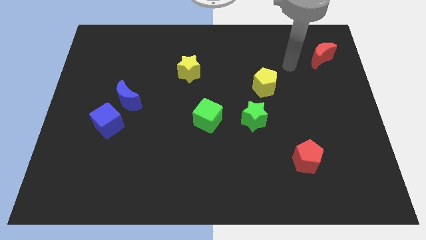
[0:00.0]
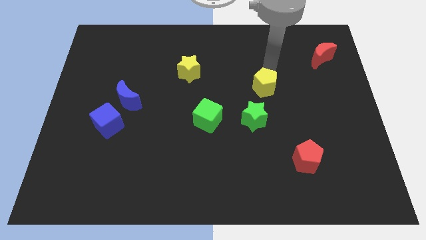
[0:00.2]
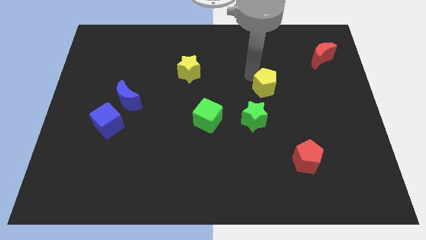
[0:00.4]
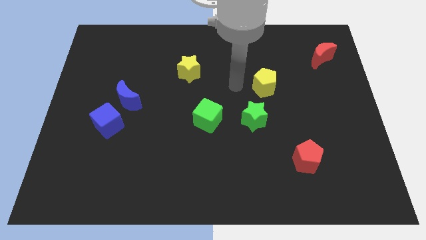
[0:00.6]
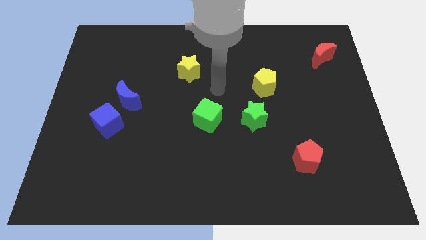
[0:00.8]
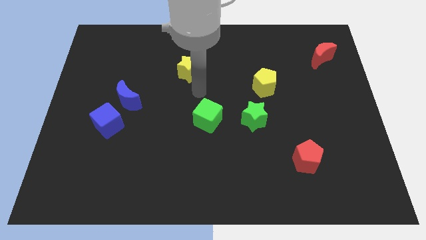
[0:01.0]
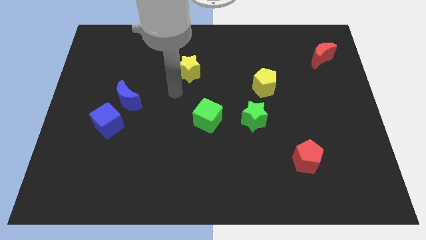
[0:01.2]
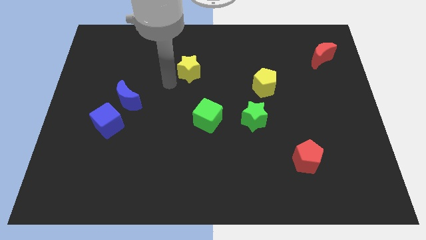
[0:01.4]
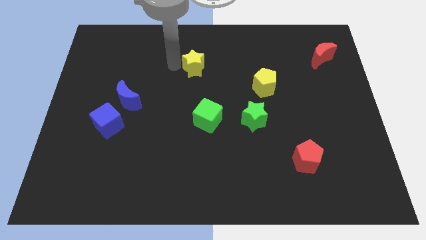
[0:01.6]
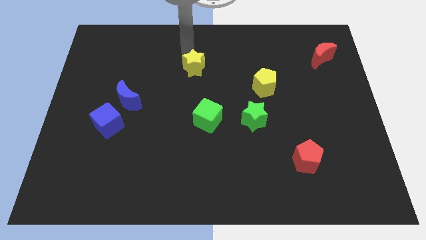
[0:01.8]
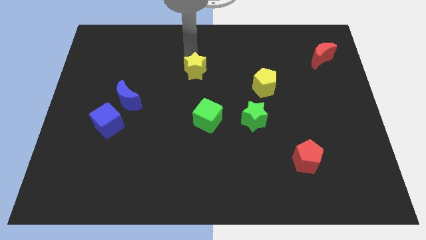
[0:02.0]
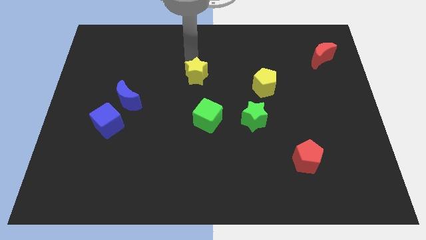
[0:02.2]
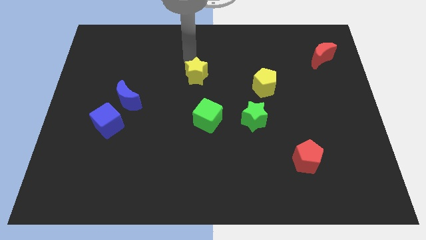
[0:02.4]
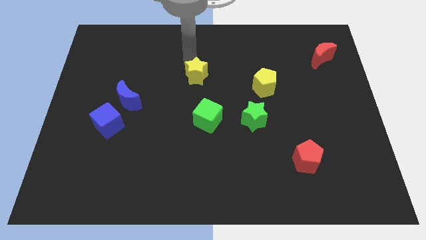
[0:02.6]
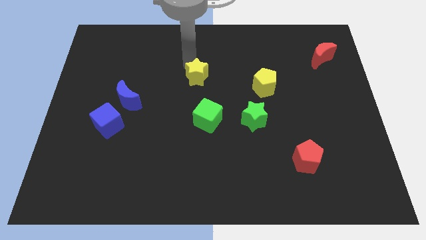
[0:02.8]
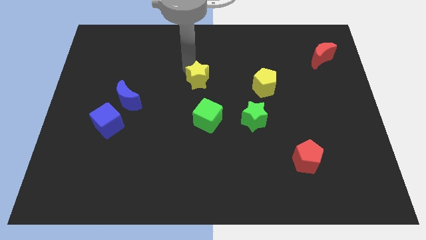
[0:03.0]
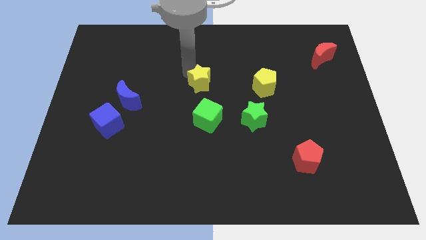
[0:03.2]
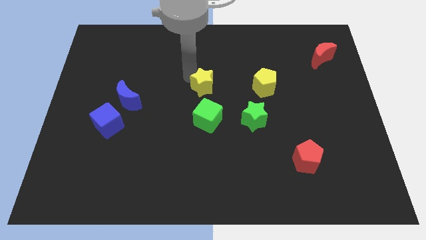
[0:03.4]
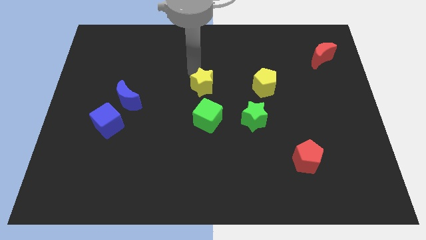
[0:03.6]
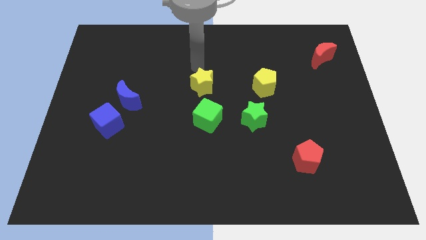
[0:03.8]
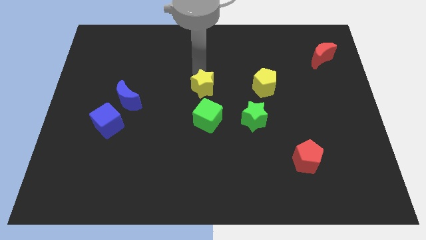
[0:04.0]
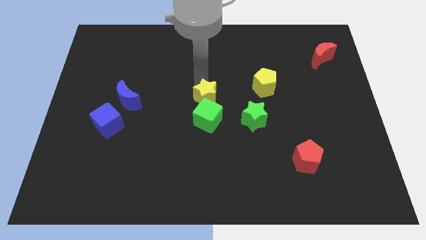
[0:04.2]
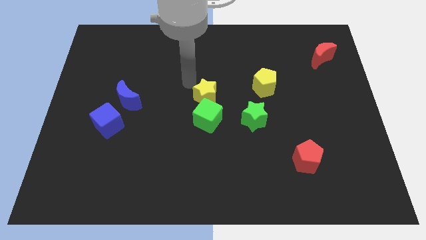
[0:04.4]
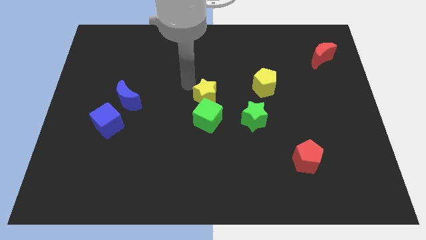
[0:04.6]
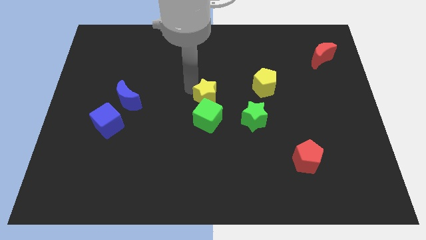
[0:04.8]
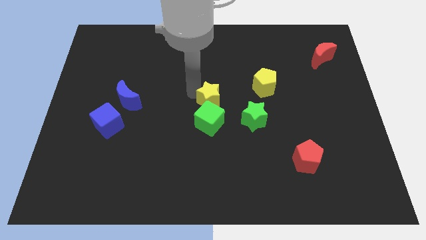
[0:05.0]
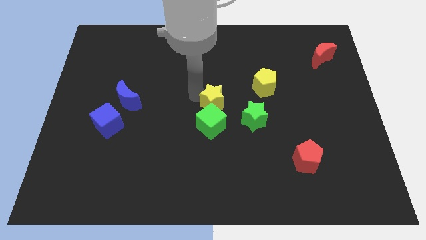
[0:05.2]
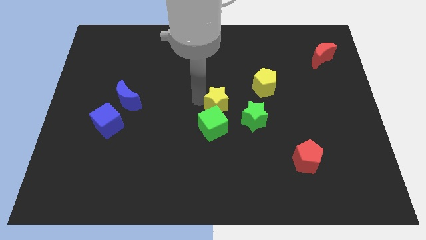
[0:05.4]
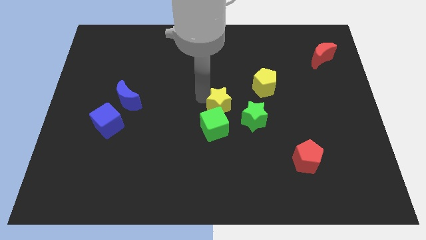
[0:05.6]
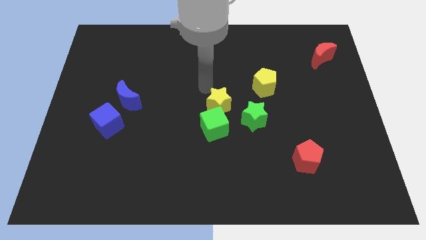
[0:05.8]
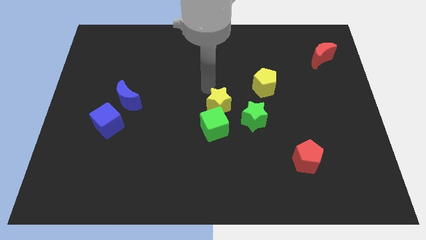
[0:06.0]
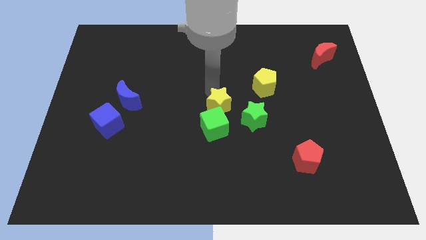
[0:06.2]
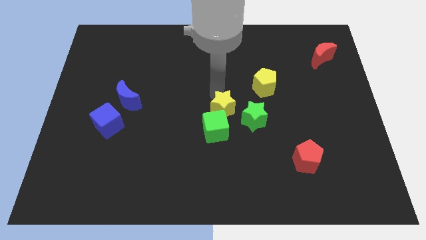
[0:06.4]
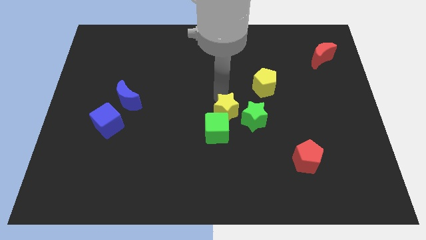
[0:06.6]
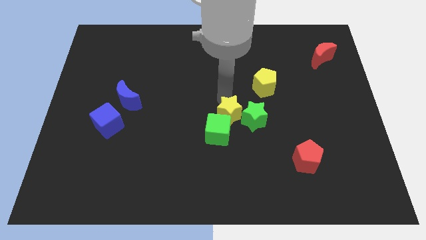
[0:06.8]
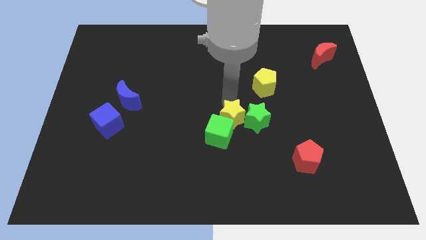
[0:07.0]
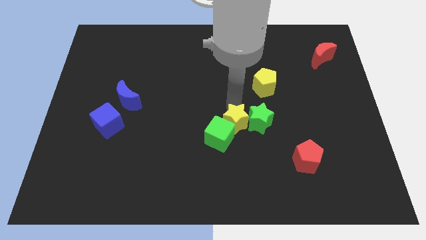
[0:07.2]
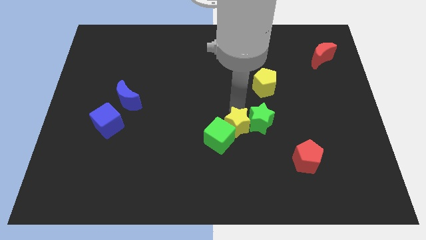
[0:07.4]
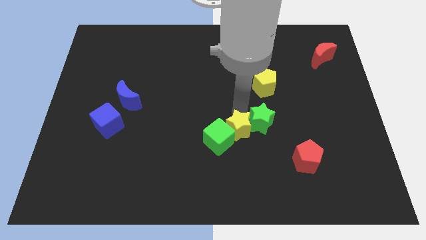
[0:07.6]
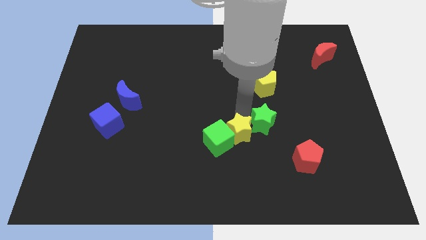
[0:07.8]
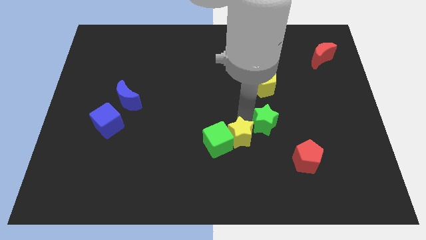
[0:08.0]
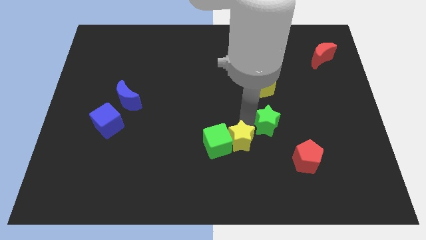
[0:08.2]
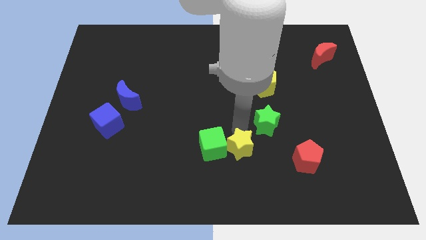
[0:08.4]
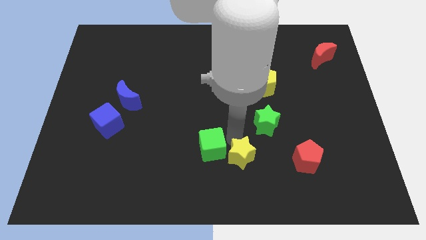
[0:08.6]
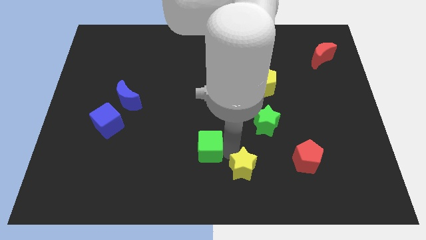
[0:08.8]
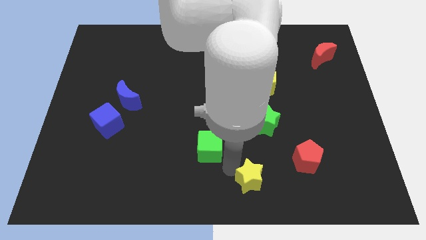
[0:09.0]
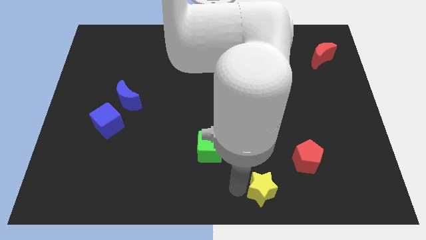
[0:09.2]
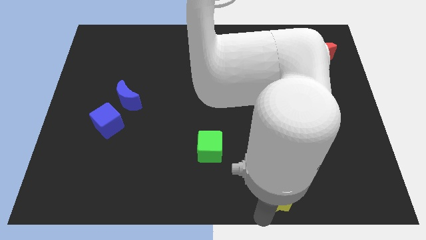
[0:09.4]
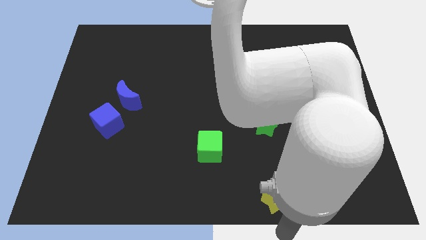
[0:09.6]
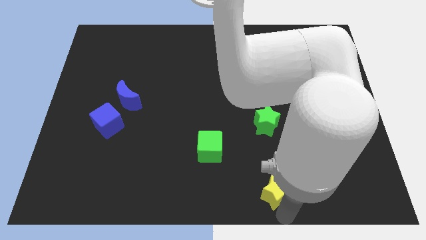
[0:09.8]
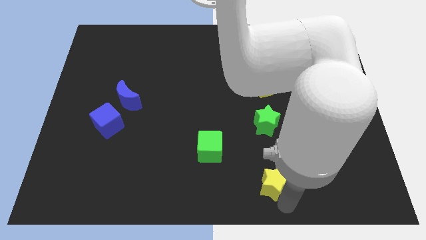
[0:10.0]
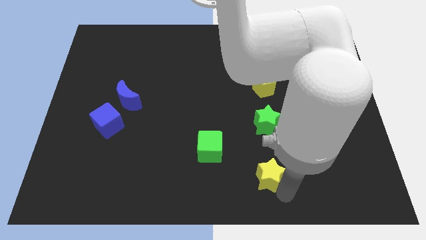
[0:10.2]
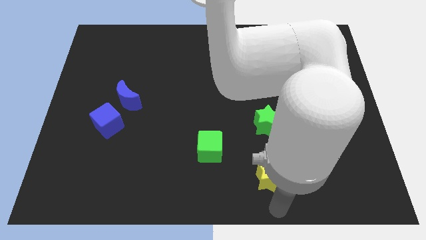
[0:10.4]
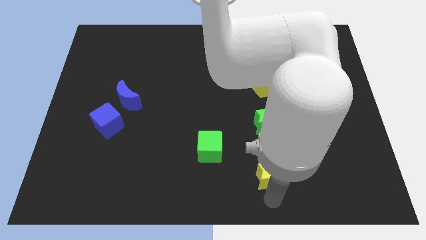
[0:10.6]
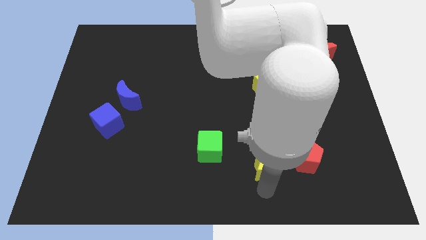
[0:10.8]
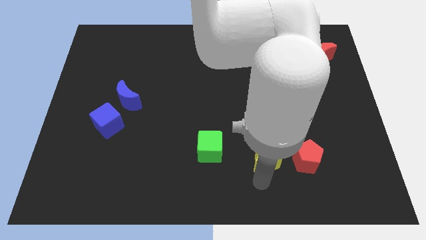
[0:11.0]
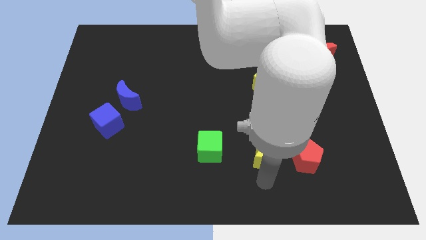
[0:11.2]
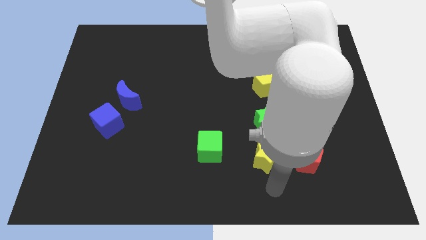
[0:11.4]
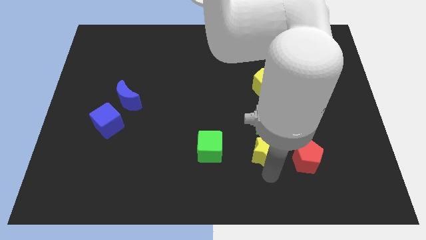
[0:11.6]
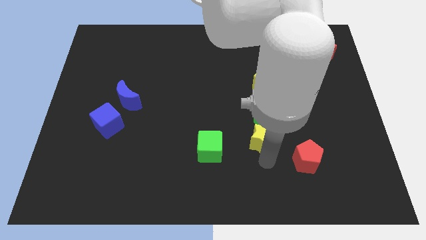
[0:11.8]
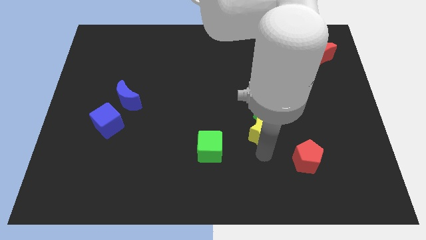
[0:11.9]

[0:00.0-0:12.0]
slide the yellow star below the yellow pentagon

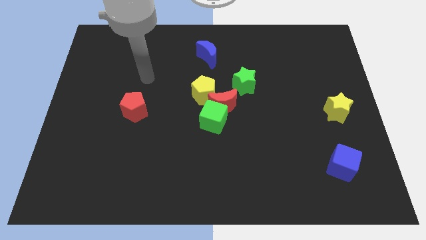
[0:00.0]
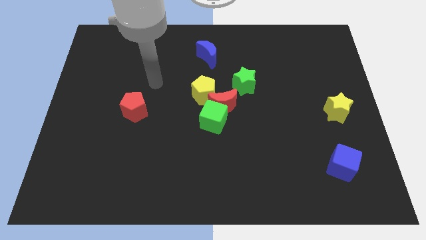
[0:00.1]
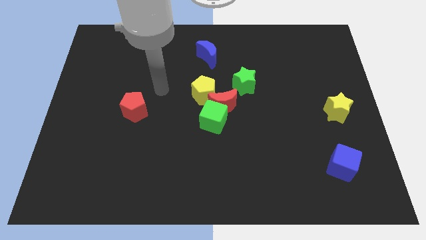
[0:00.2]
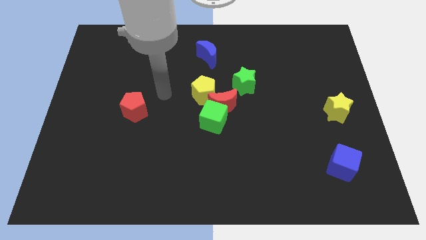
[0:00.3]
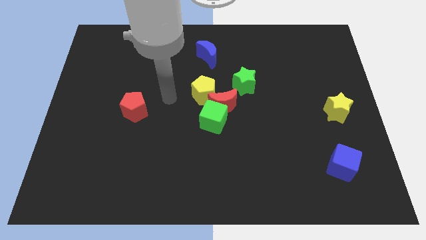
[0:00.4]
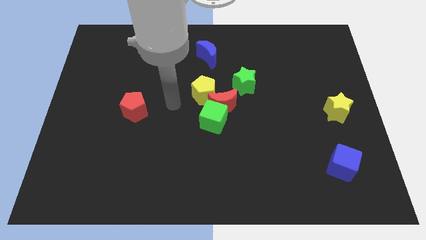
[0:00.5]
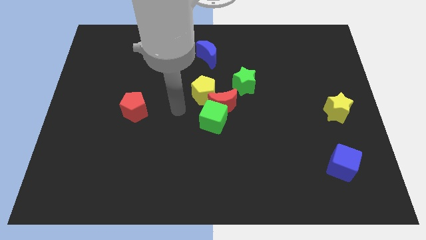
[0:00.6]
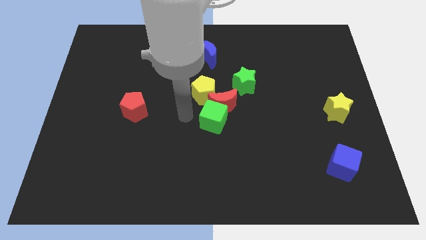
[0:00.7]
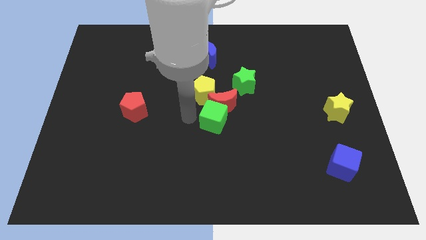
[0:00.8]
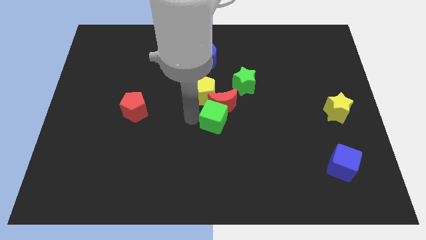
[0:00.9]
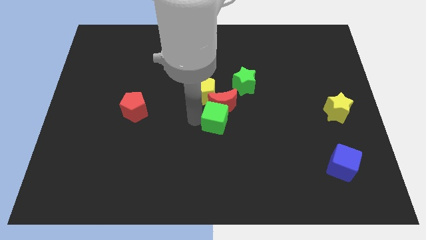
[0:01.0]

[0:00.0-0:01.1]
move the green cube diagonally down and to the right of the red moon
